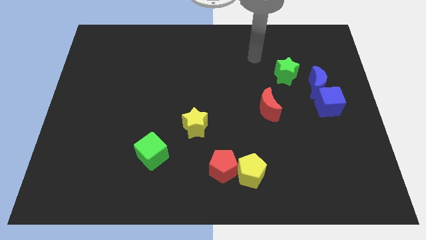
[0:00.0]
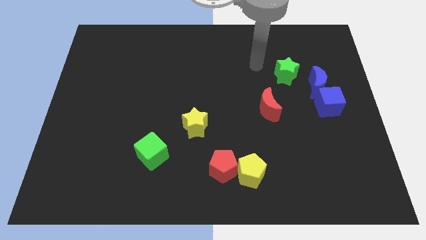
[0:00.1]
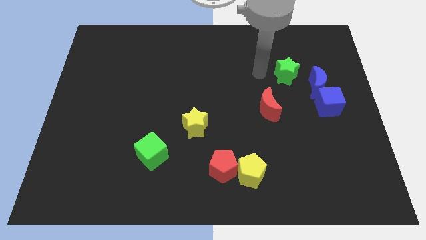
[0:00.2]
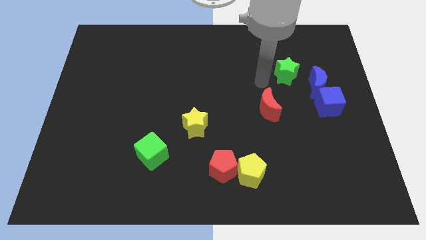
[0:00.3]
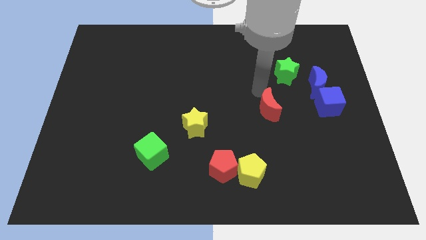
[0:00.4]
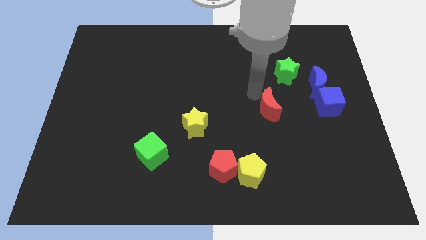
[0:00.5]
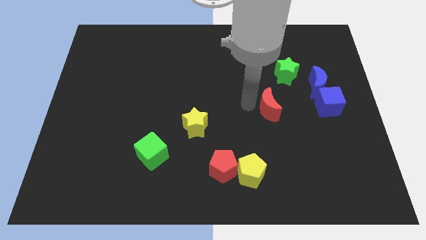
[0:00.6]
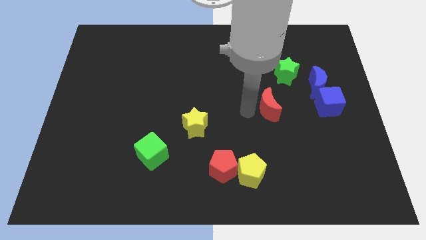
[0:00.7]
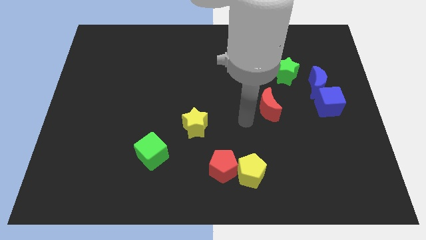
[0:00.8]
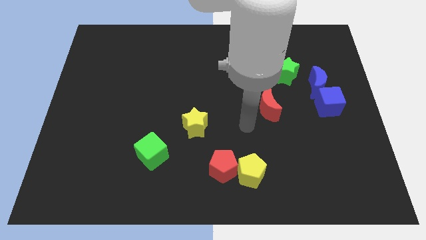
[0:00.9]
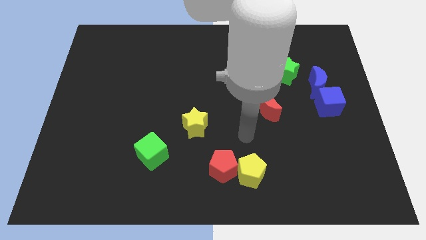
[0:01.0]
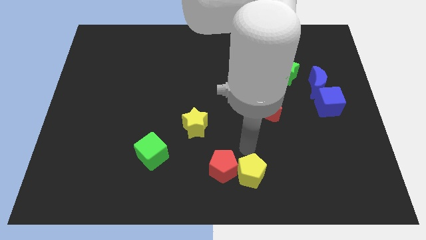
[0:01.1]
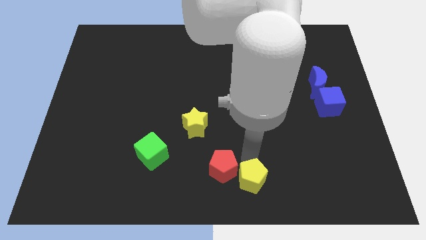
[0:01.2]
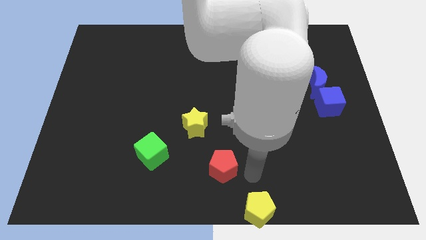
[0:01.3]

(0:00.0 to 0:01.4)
pull the red pentagon apart from the yellow pentagon

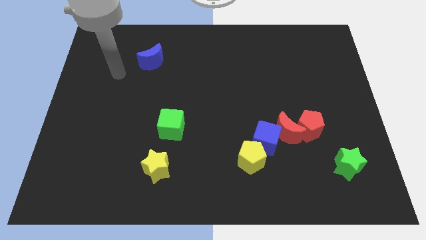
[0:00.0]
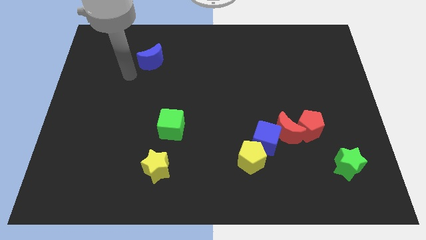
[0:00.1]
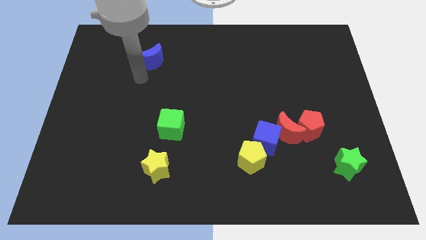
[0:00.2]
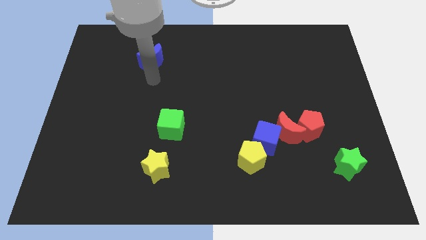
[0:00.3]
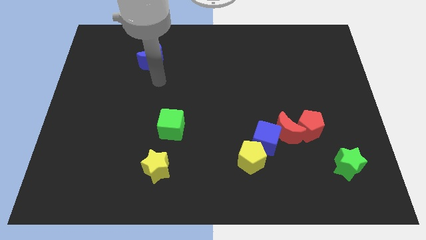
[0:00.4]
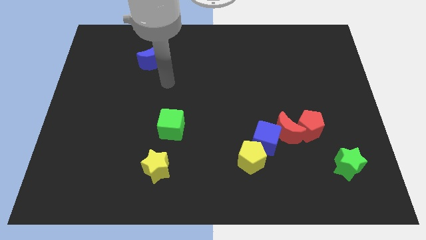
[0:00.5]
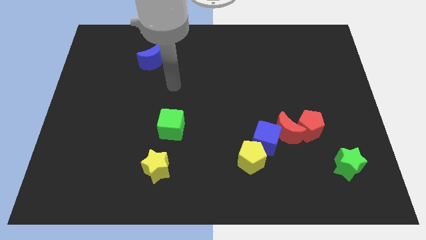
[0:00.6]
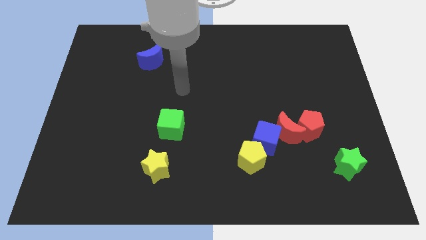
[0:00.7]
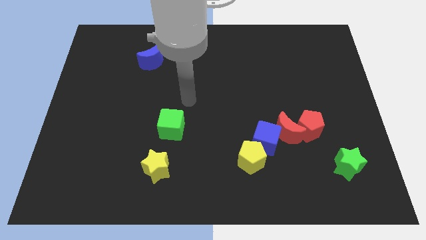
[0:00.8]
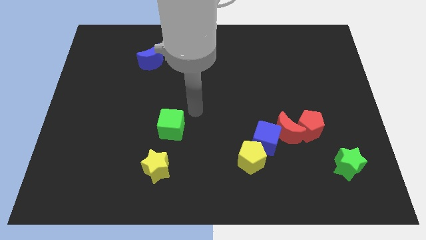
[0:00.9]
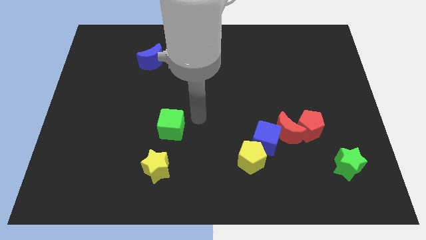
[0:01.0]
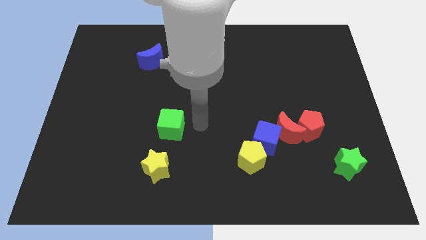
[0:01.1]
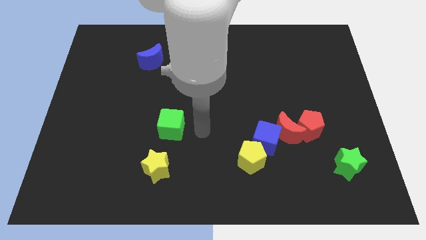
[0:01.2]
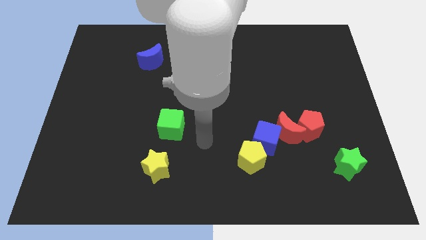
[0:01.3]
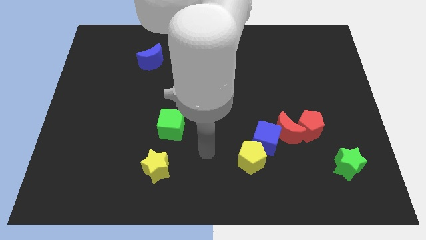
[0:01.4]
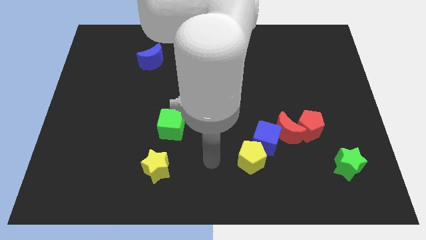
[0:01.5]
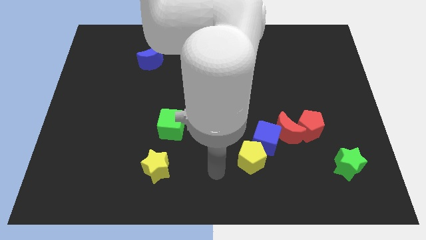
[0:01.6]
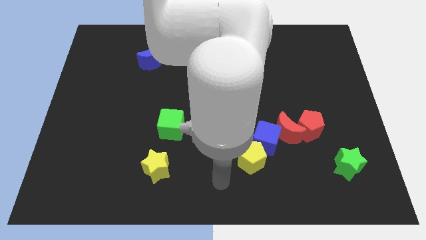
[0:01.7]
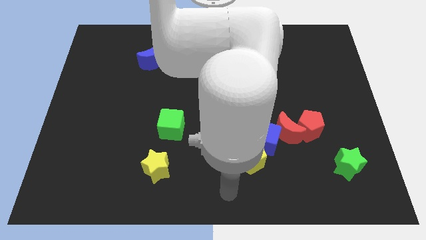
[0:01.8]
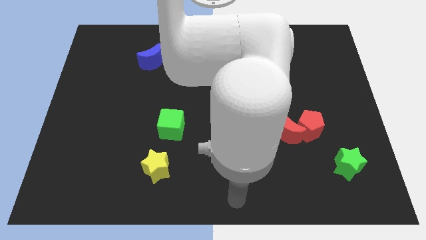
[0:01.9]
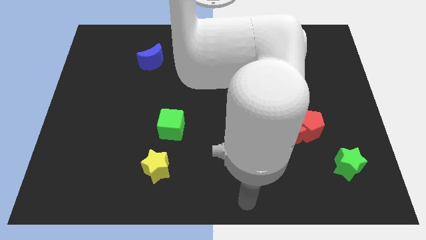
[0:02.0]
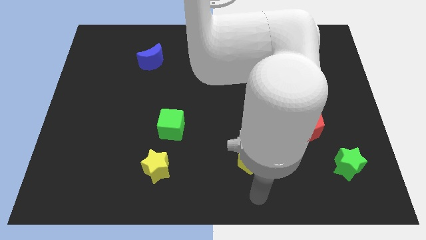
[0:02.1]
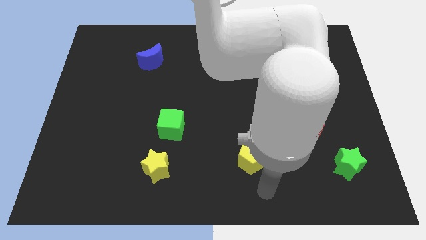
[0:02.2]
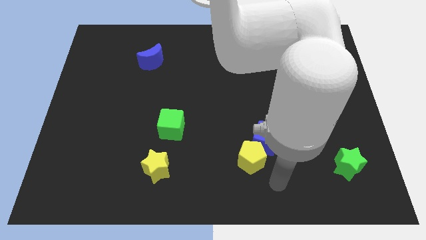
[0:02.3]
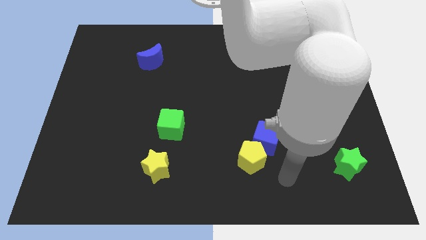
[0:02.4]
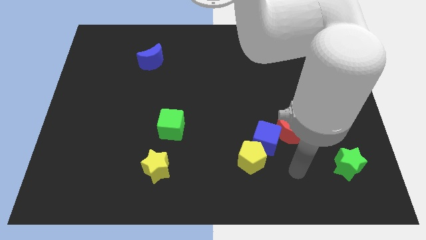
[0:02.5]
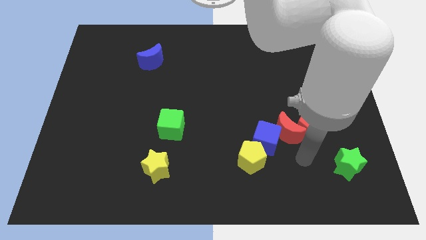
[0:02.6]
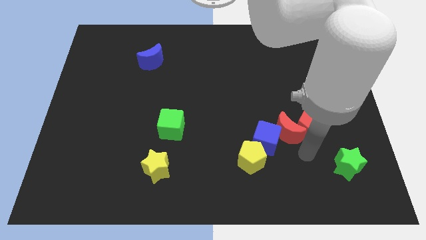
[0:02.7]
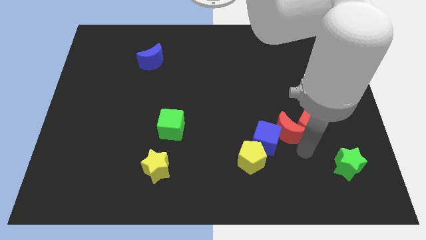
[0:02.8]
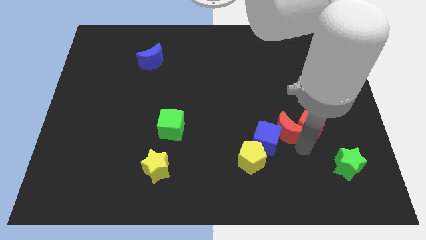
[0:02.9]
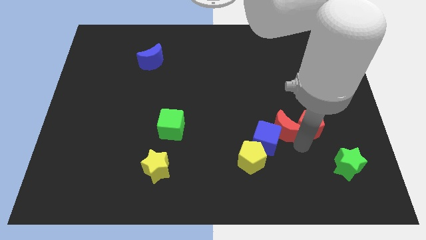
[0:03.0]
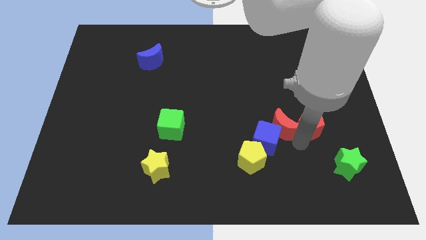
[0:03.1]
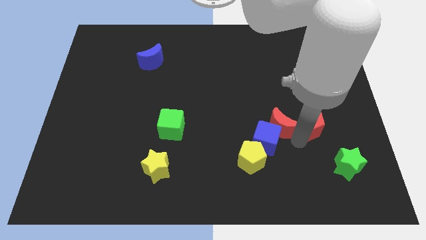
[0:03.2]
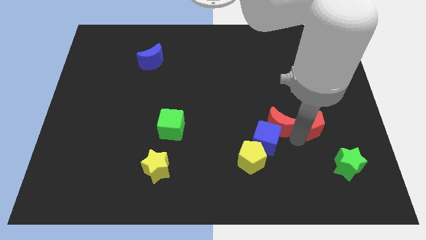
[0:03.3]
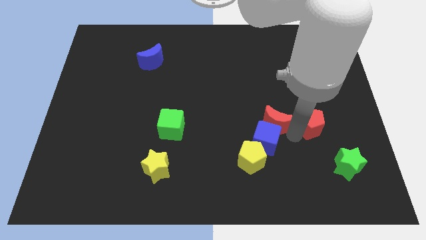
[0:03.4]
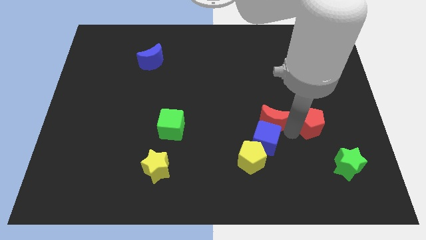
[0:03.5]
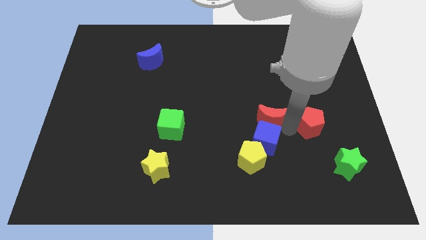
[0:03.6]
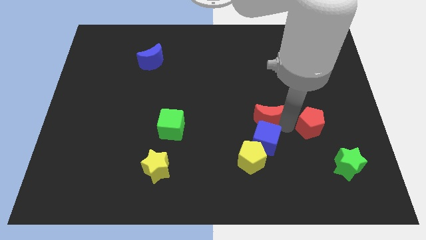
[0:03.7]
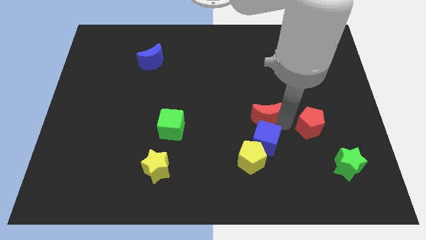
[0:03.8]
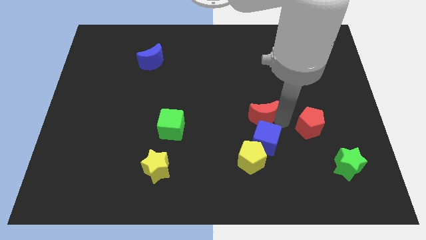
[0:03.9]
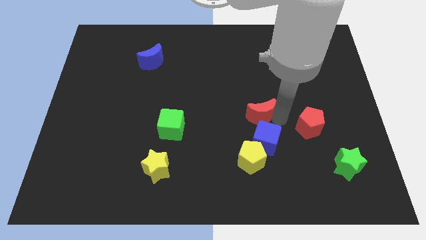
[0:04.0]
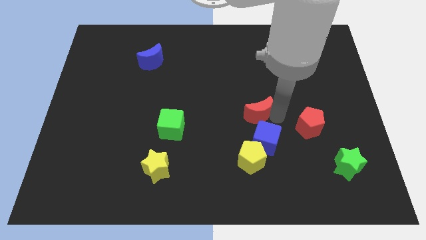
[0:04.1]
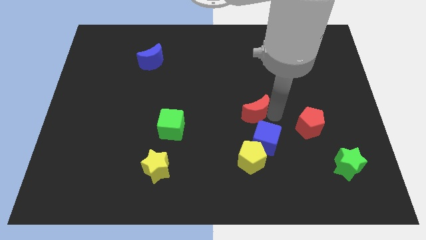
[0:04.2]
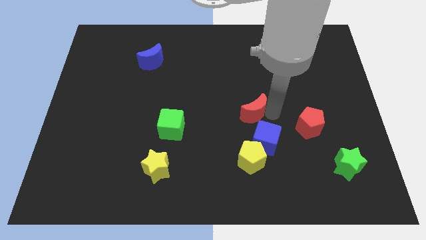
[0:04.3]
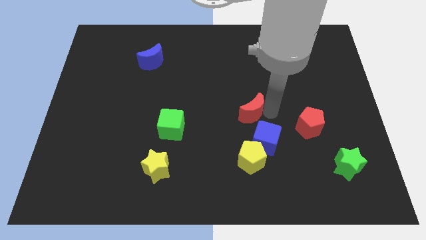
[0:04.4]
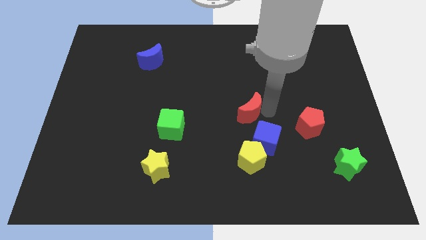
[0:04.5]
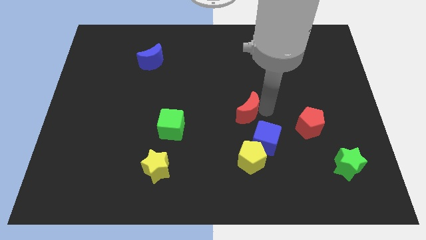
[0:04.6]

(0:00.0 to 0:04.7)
separate the red moon from the red pentagon and blue cube

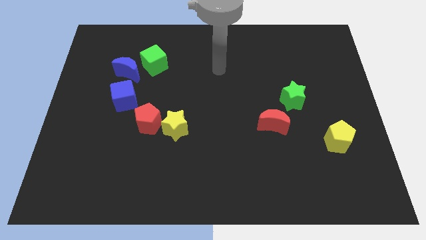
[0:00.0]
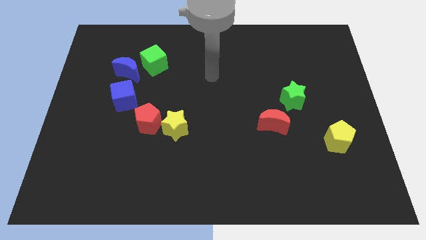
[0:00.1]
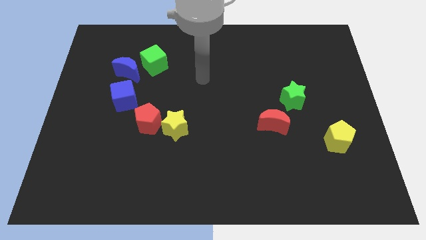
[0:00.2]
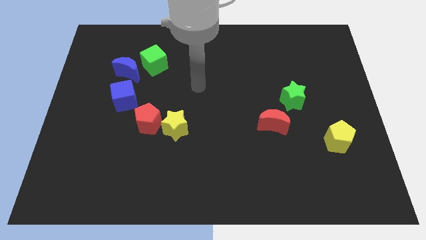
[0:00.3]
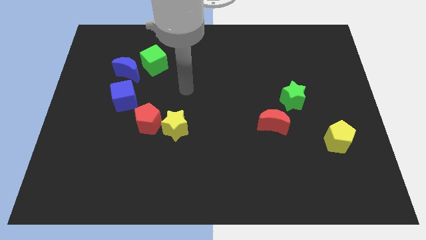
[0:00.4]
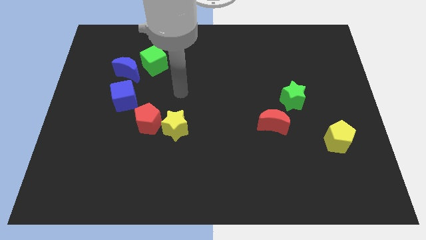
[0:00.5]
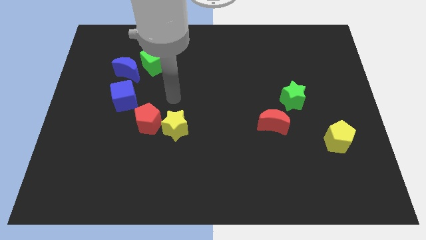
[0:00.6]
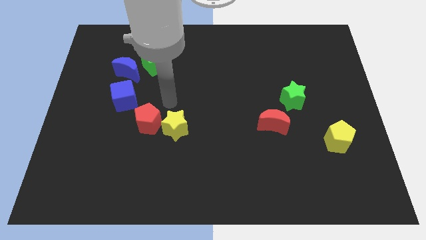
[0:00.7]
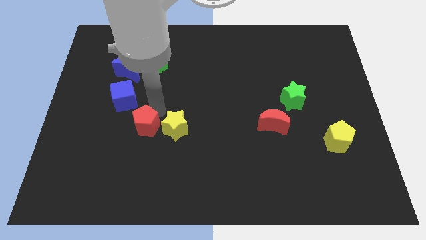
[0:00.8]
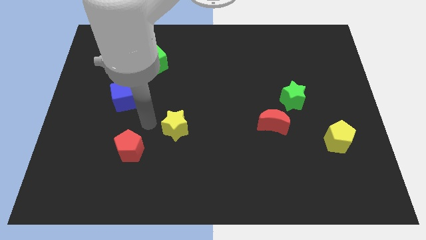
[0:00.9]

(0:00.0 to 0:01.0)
pull the yellow star apart from the red pentagon

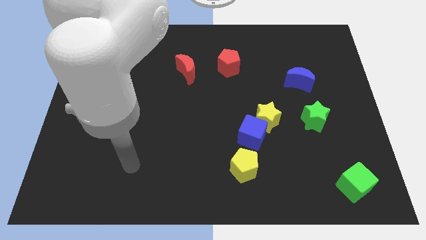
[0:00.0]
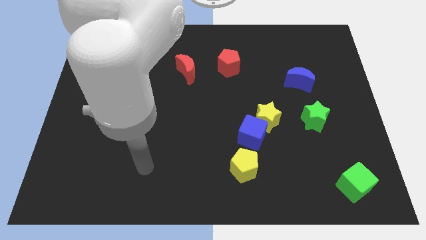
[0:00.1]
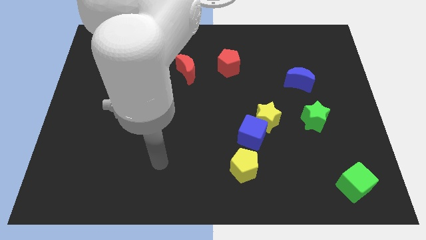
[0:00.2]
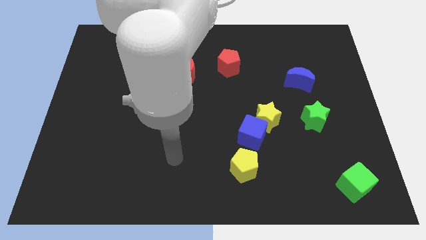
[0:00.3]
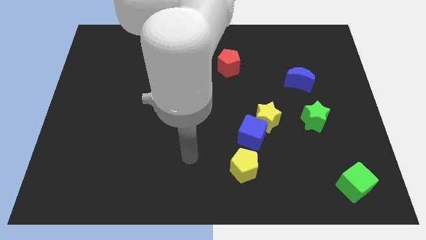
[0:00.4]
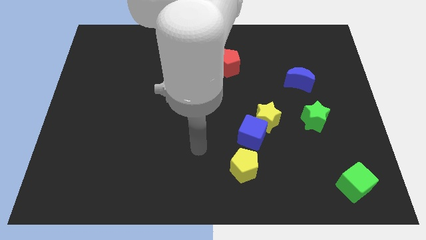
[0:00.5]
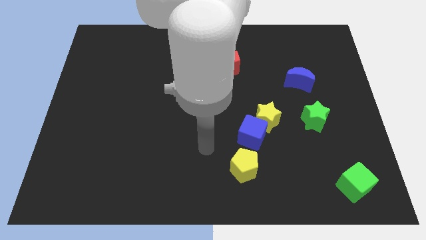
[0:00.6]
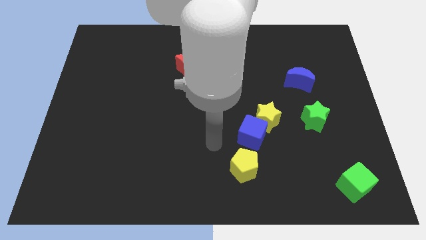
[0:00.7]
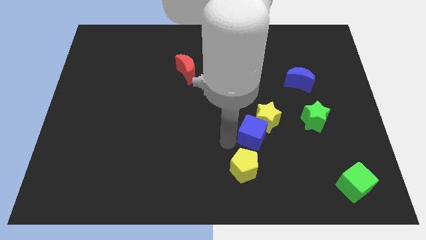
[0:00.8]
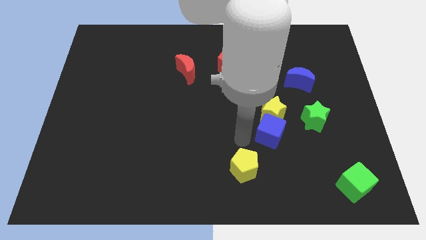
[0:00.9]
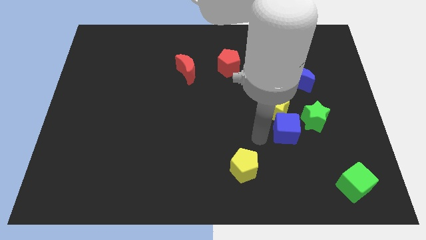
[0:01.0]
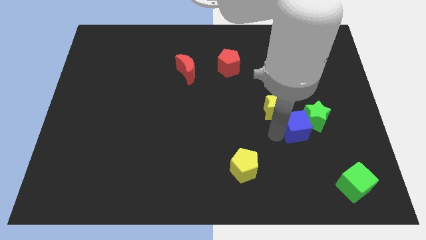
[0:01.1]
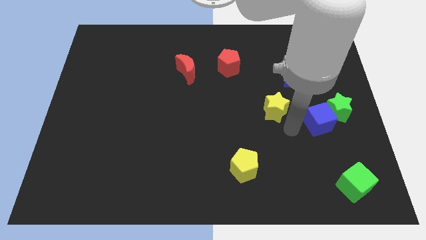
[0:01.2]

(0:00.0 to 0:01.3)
move the yellow star away from the blue cube

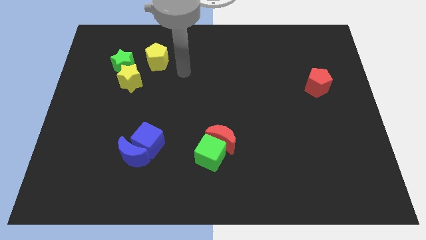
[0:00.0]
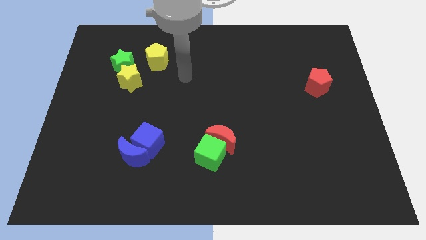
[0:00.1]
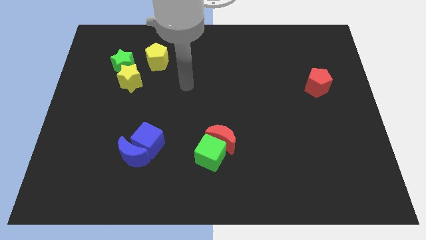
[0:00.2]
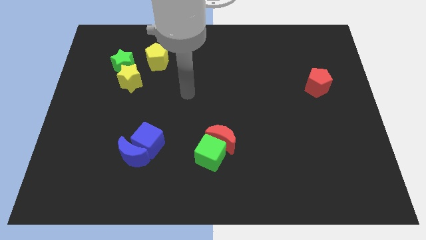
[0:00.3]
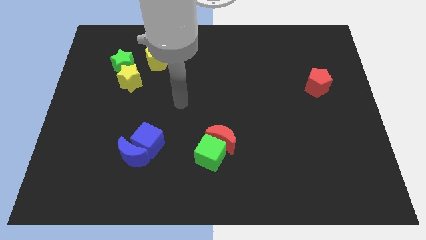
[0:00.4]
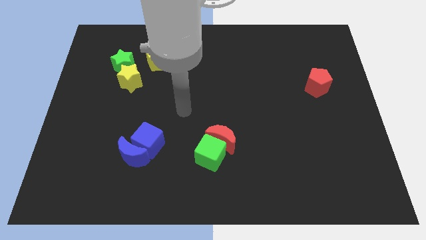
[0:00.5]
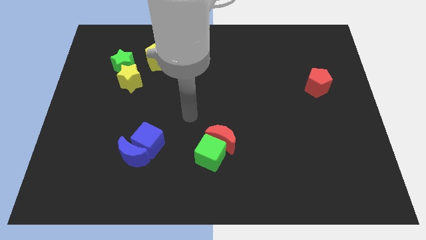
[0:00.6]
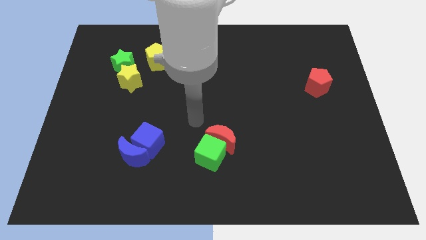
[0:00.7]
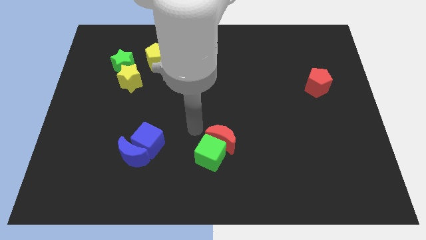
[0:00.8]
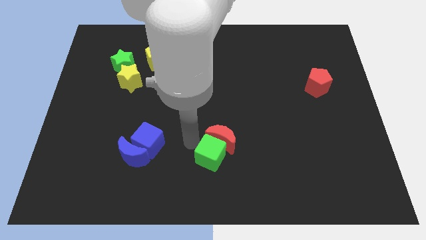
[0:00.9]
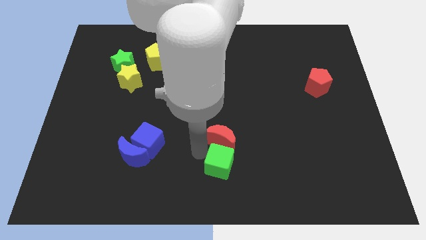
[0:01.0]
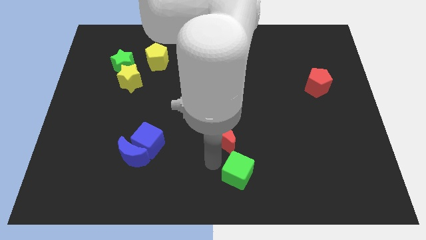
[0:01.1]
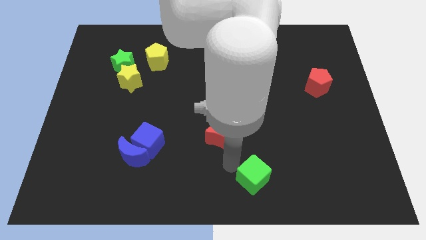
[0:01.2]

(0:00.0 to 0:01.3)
pull the red moon apart from the green cube
